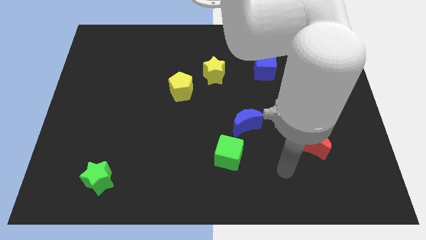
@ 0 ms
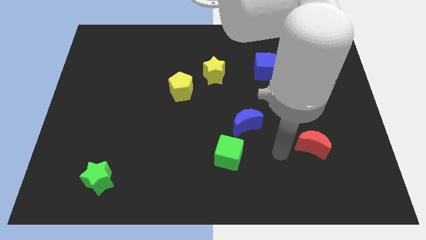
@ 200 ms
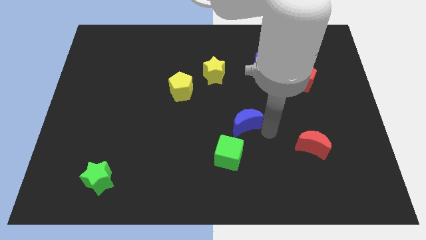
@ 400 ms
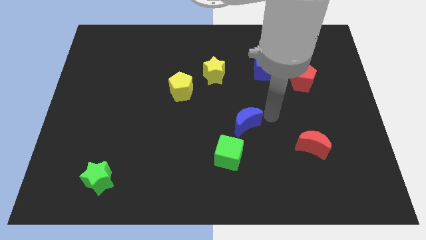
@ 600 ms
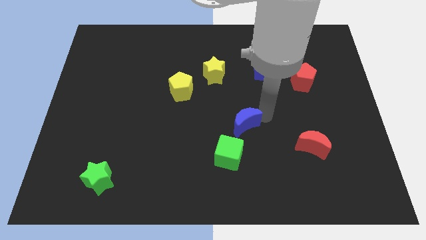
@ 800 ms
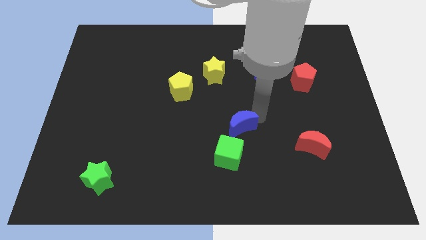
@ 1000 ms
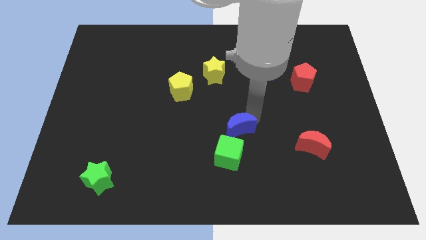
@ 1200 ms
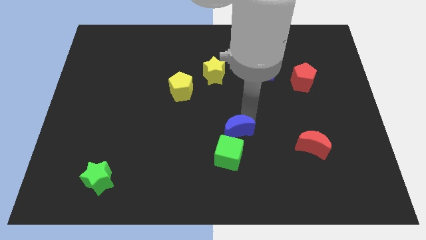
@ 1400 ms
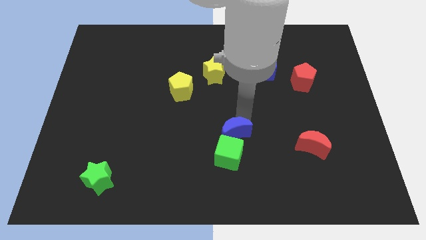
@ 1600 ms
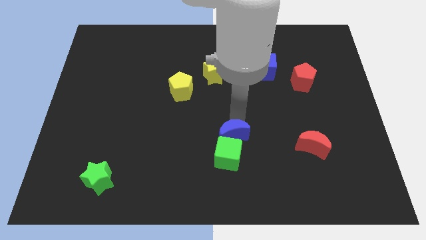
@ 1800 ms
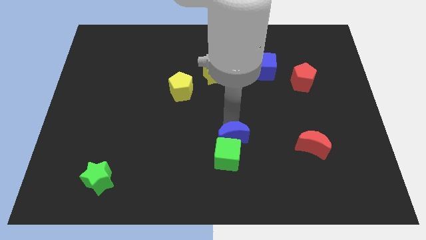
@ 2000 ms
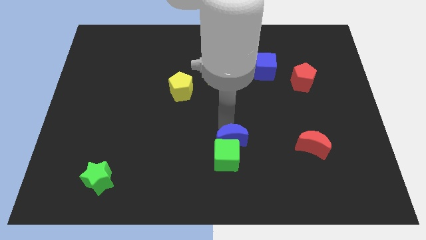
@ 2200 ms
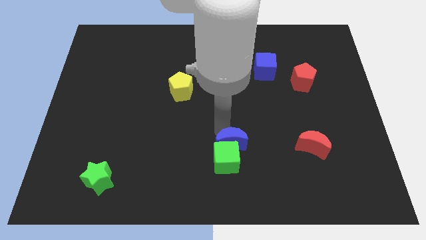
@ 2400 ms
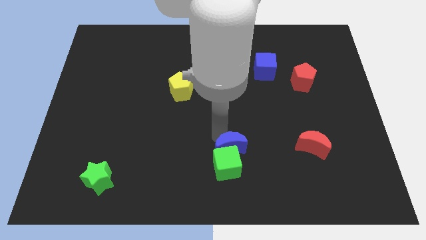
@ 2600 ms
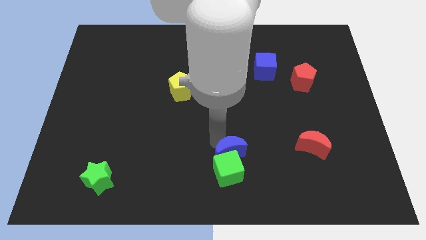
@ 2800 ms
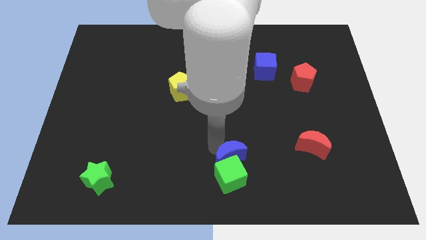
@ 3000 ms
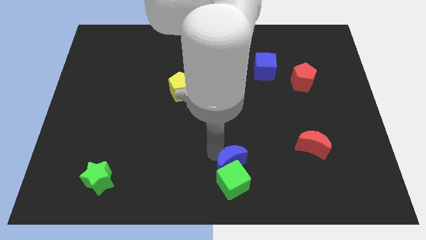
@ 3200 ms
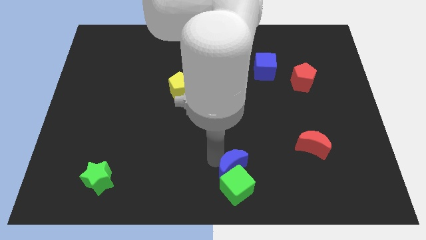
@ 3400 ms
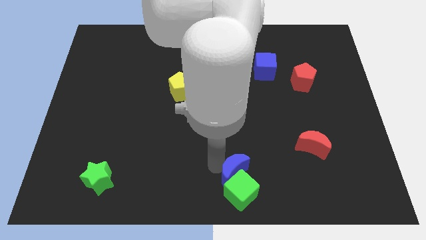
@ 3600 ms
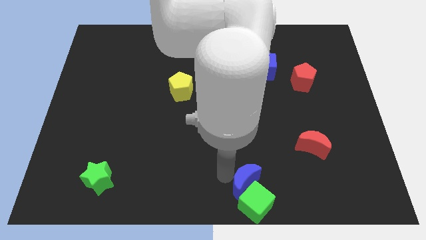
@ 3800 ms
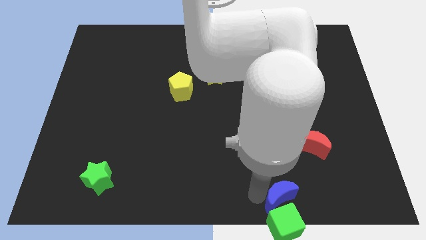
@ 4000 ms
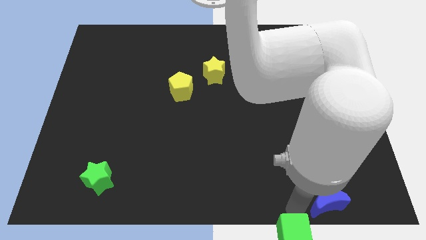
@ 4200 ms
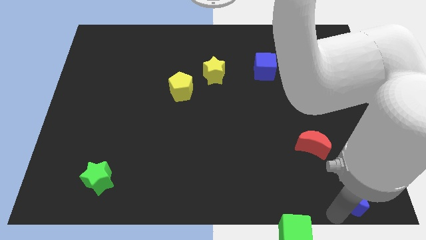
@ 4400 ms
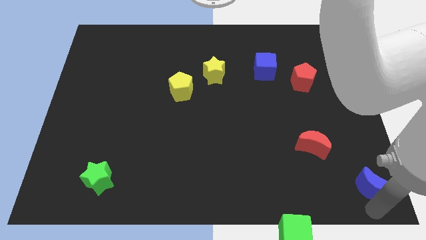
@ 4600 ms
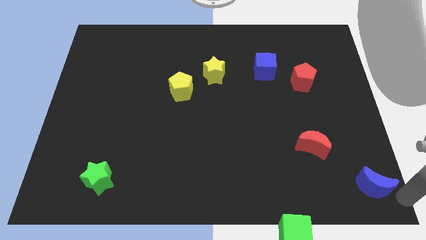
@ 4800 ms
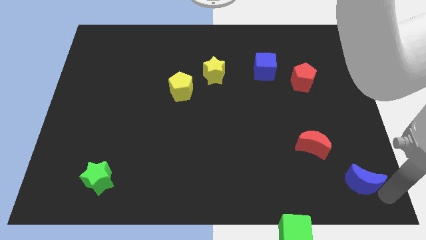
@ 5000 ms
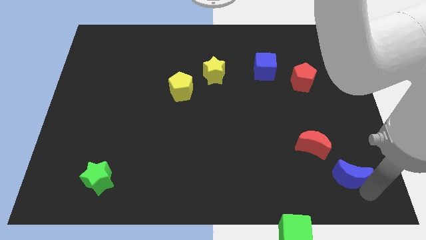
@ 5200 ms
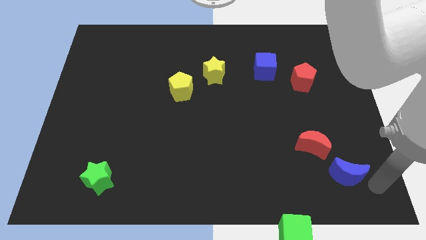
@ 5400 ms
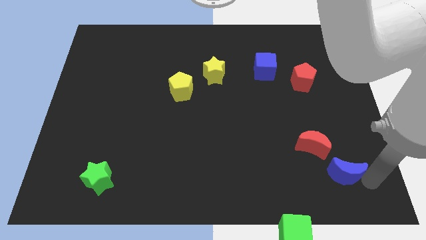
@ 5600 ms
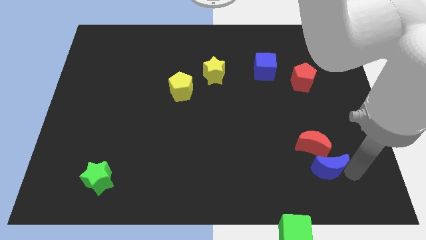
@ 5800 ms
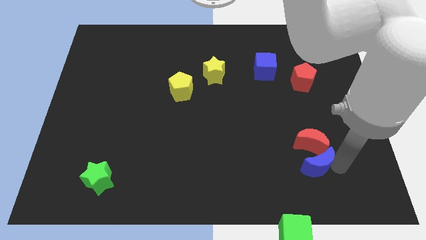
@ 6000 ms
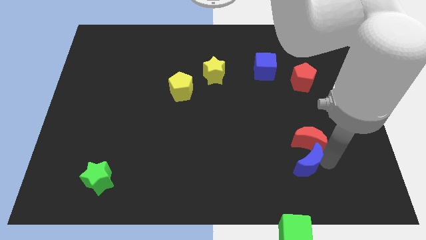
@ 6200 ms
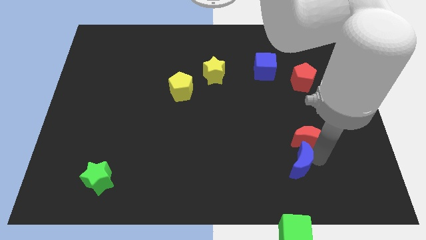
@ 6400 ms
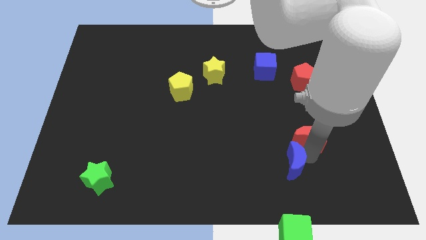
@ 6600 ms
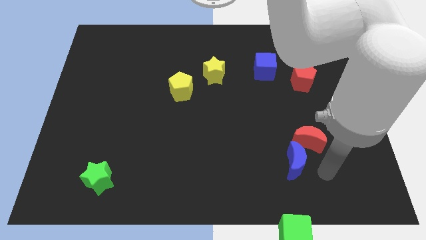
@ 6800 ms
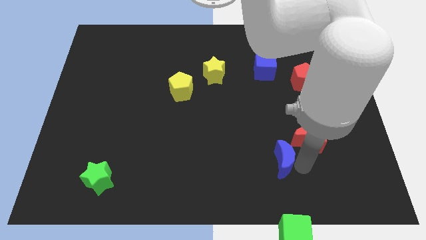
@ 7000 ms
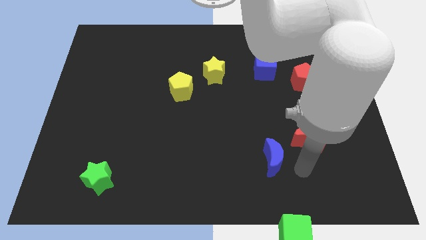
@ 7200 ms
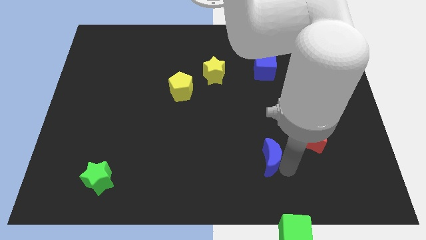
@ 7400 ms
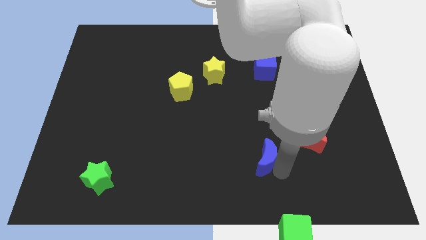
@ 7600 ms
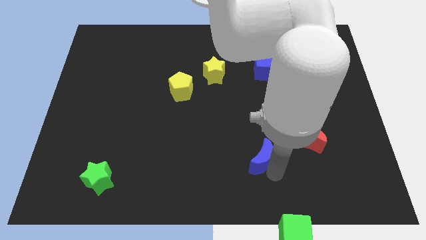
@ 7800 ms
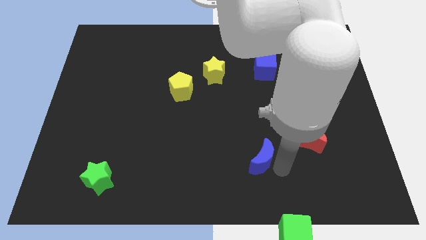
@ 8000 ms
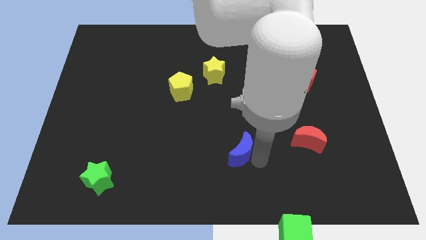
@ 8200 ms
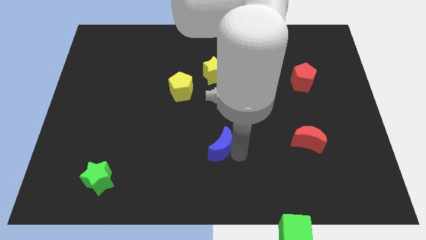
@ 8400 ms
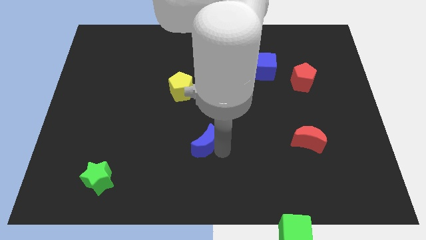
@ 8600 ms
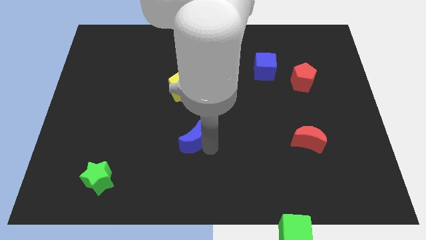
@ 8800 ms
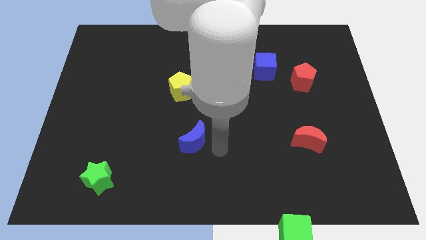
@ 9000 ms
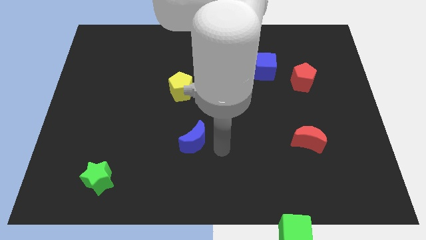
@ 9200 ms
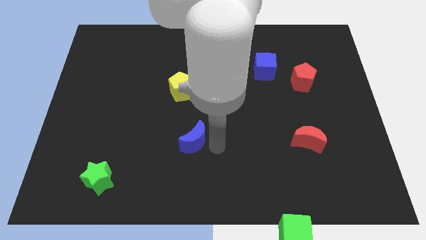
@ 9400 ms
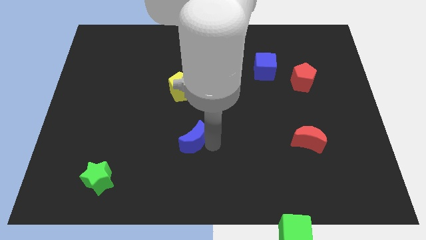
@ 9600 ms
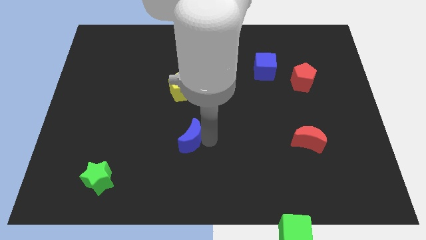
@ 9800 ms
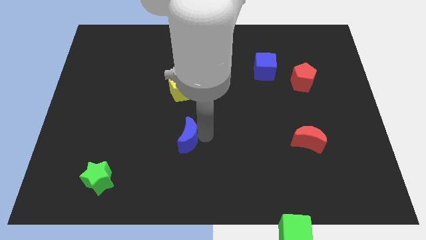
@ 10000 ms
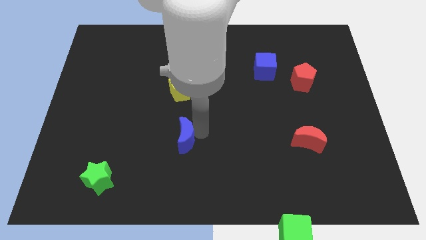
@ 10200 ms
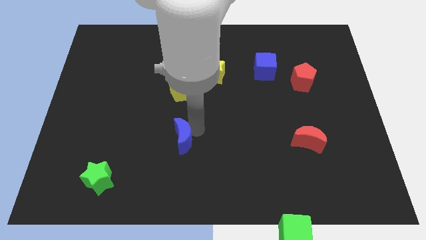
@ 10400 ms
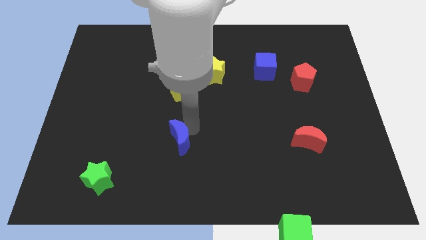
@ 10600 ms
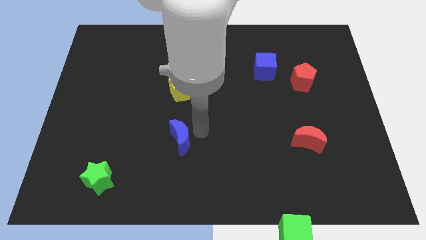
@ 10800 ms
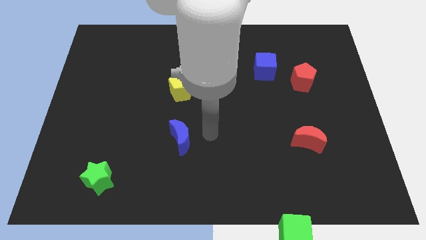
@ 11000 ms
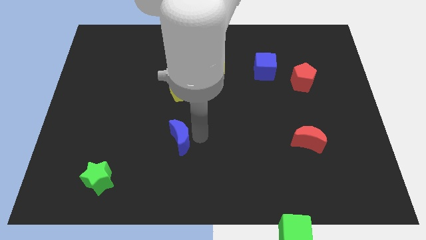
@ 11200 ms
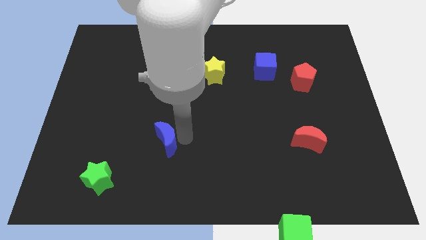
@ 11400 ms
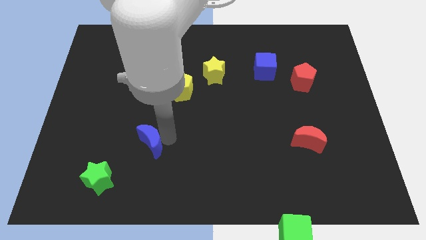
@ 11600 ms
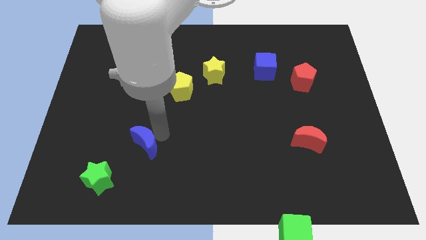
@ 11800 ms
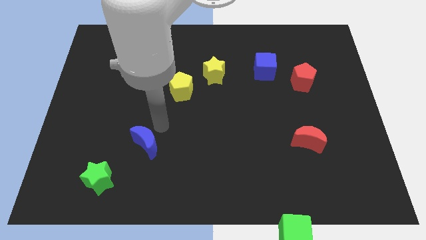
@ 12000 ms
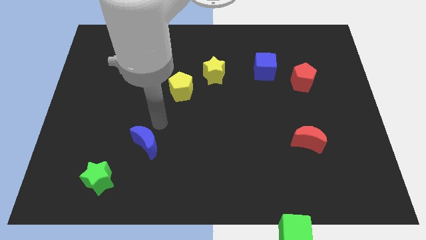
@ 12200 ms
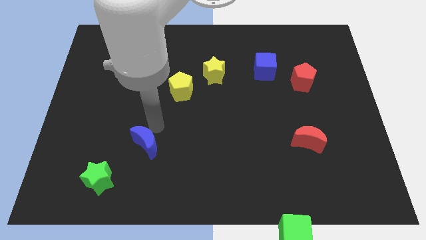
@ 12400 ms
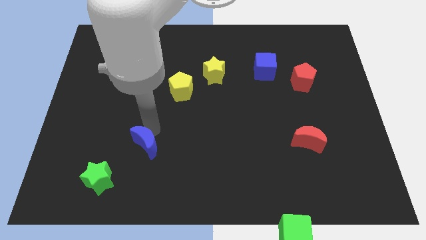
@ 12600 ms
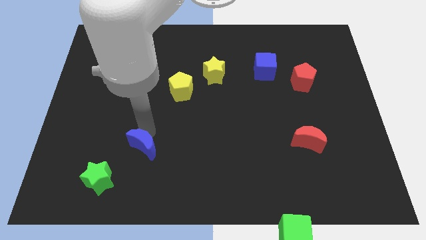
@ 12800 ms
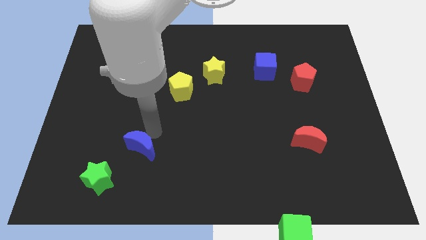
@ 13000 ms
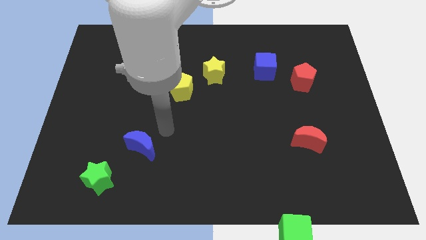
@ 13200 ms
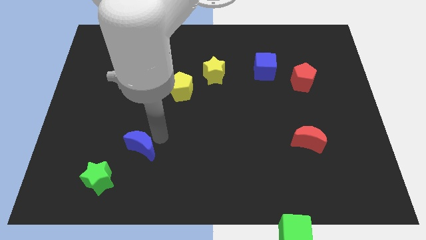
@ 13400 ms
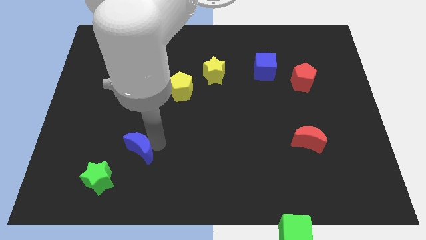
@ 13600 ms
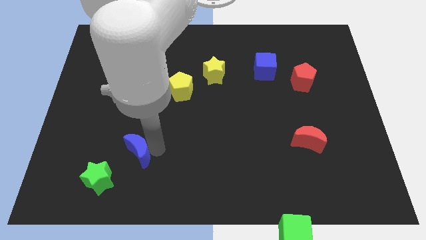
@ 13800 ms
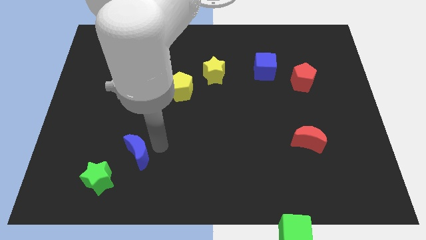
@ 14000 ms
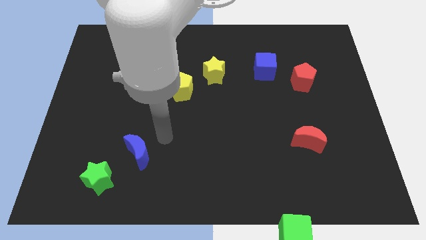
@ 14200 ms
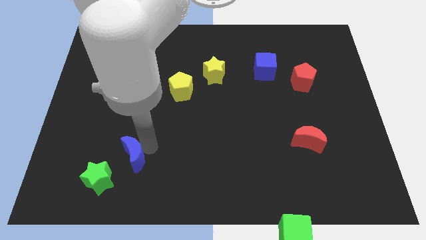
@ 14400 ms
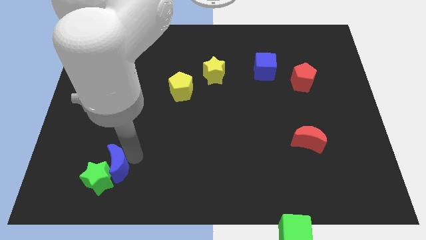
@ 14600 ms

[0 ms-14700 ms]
put the blue moon close to the green star
